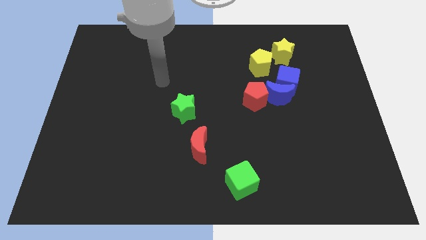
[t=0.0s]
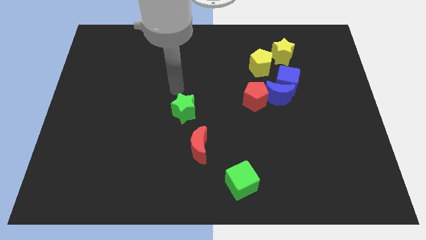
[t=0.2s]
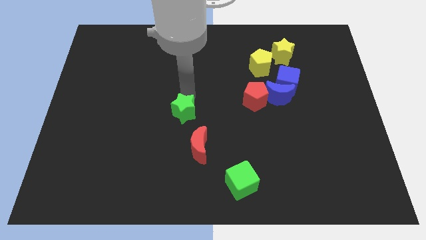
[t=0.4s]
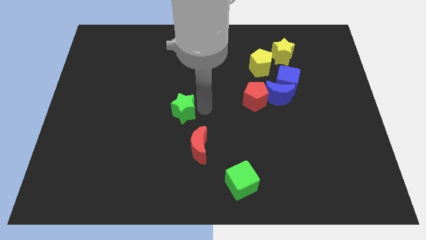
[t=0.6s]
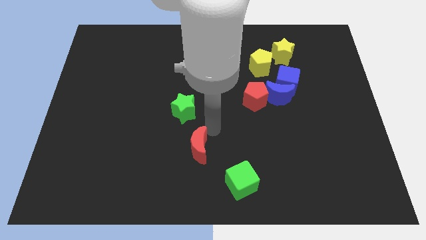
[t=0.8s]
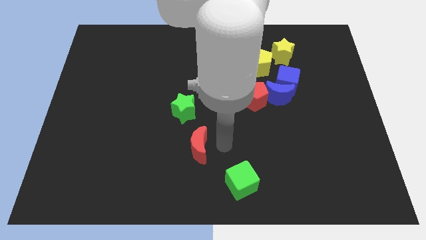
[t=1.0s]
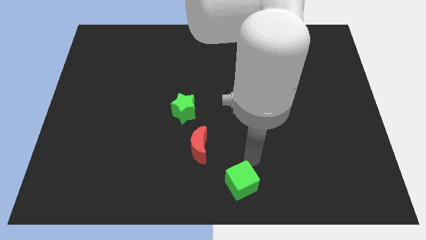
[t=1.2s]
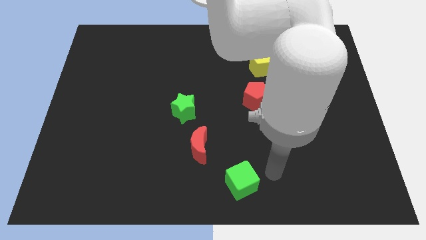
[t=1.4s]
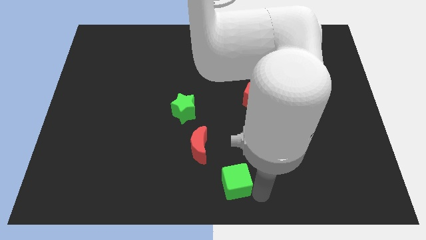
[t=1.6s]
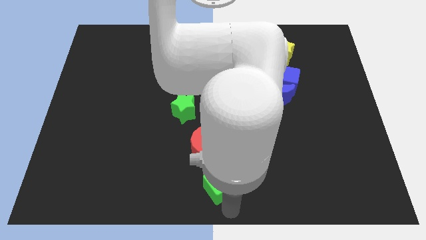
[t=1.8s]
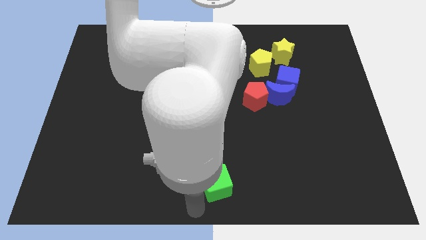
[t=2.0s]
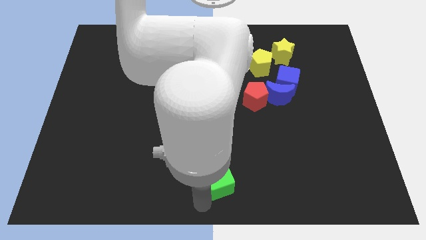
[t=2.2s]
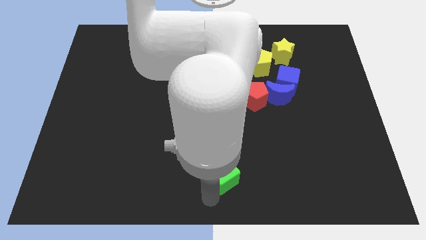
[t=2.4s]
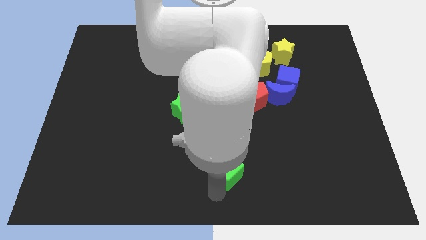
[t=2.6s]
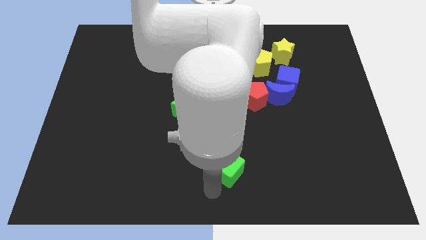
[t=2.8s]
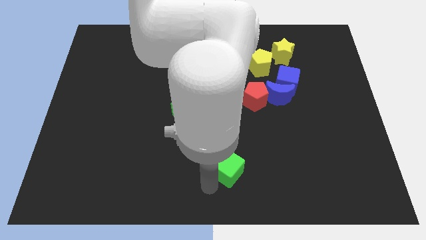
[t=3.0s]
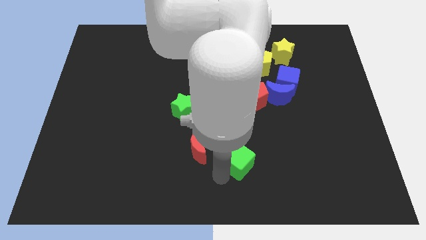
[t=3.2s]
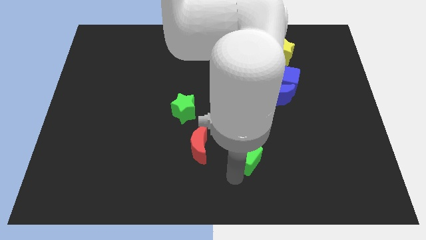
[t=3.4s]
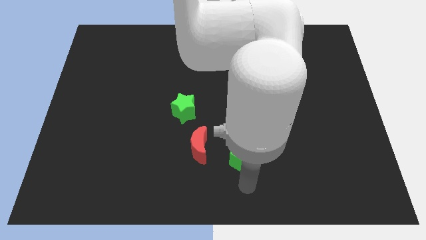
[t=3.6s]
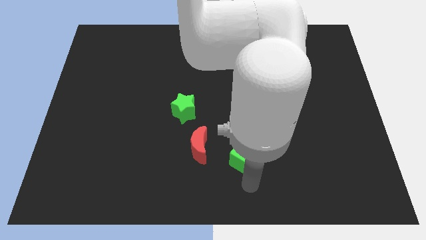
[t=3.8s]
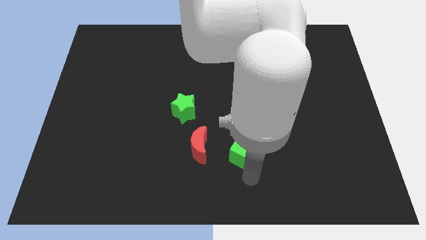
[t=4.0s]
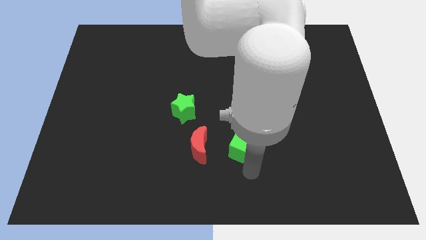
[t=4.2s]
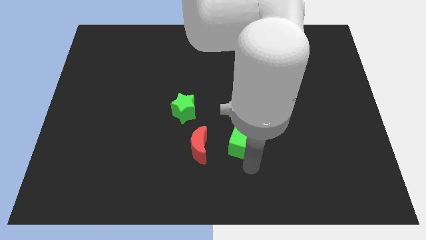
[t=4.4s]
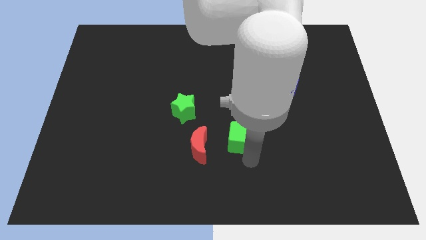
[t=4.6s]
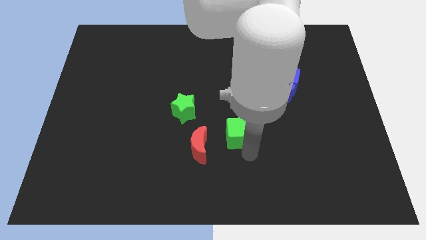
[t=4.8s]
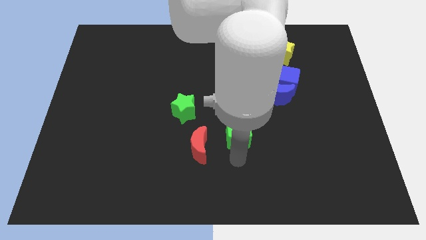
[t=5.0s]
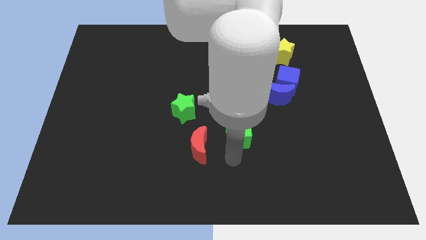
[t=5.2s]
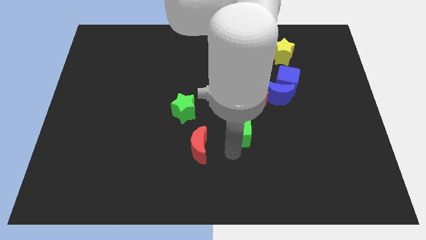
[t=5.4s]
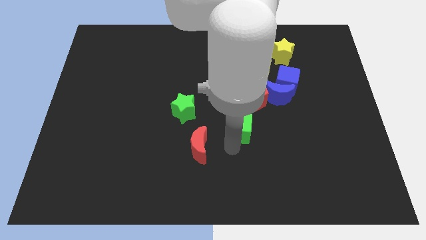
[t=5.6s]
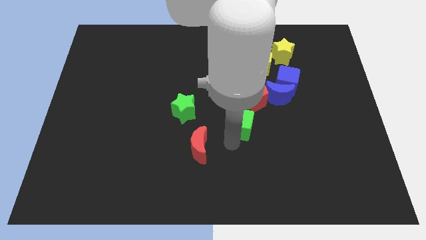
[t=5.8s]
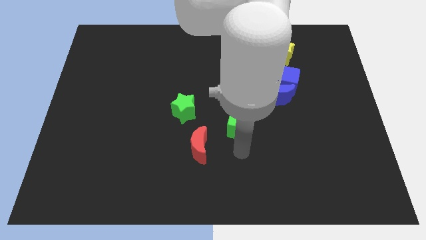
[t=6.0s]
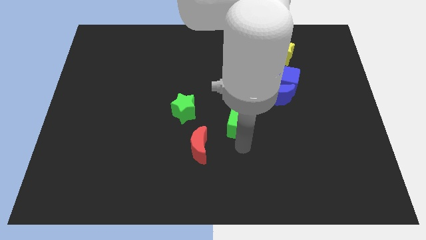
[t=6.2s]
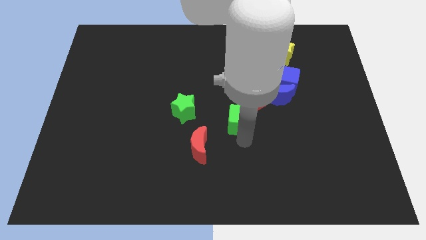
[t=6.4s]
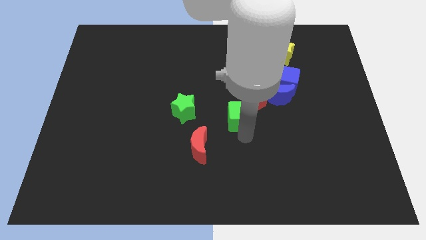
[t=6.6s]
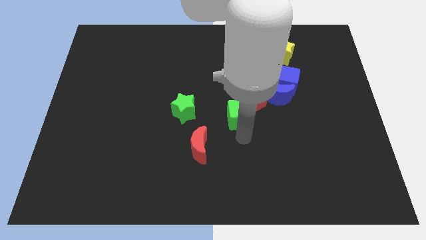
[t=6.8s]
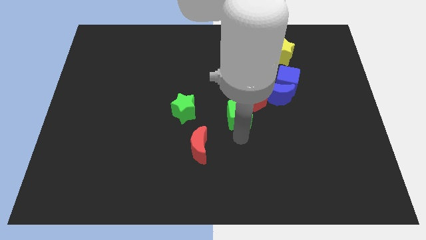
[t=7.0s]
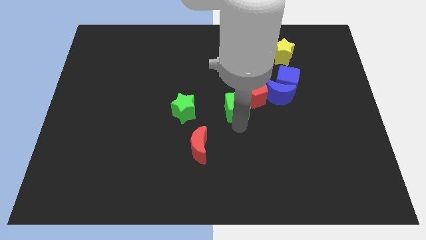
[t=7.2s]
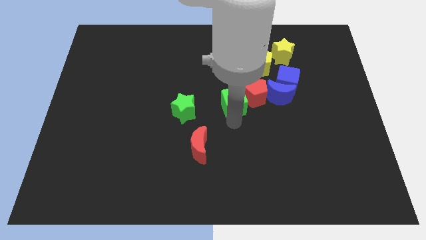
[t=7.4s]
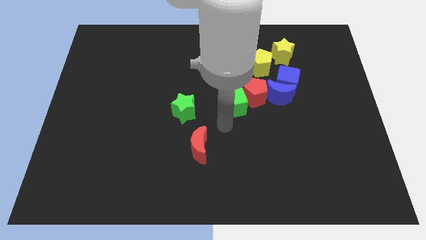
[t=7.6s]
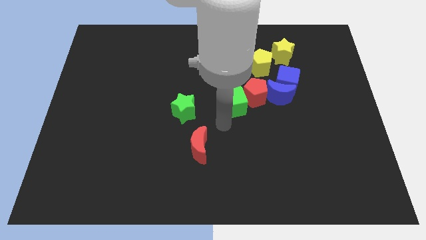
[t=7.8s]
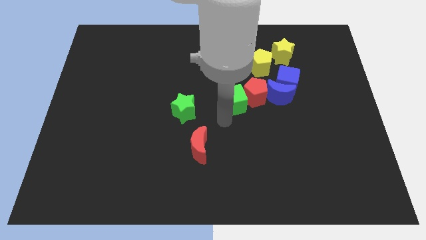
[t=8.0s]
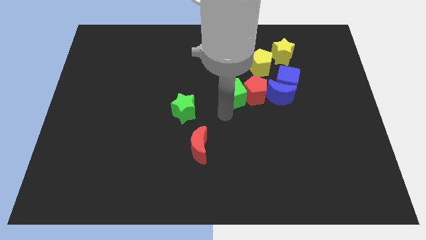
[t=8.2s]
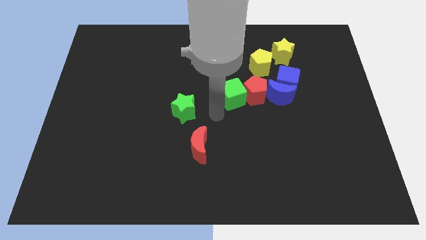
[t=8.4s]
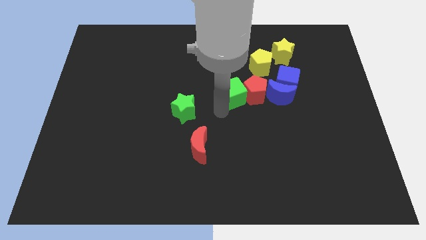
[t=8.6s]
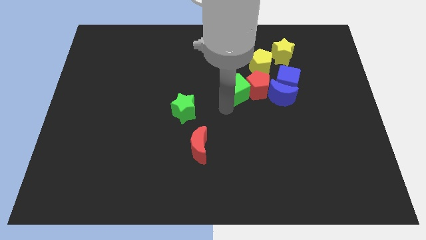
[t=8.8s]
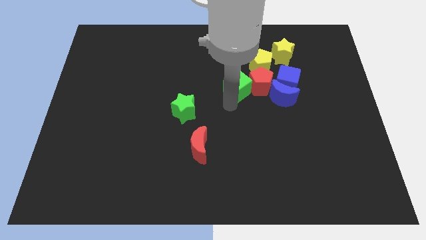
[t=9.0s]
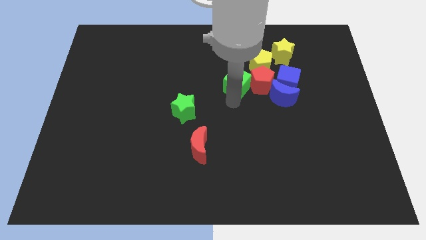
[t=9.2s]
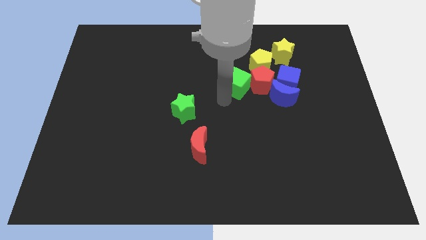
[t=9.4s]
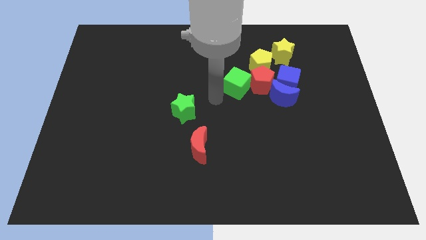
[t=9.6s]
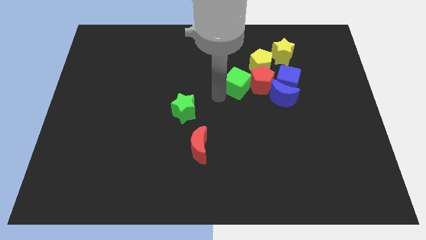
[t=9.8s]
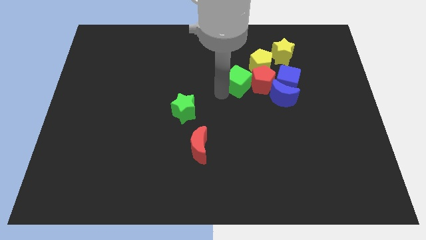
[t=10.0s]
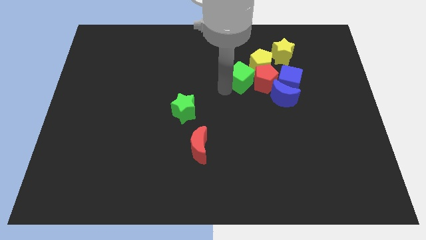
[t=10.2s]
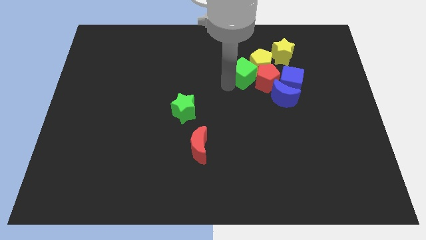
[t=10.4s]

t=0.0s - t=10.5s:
move the green cube towards the yellow pentagon

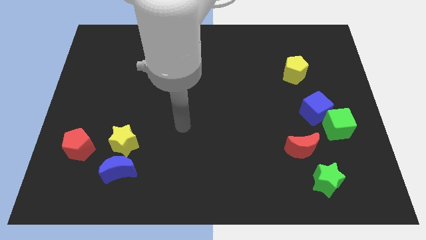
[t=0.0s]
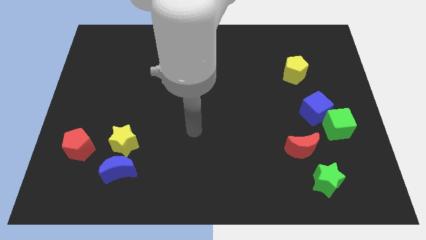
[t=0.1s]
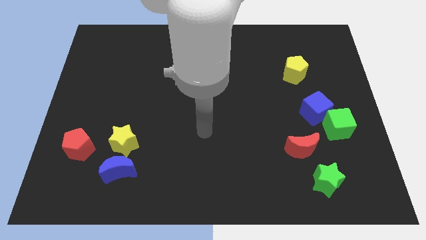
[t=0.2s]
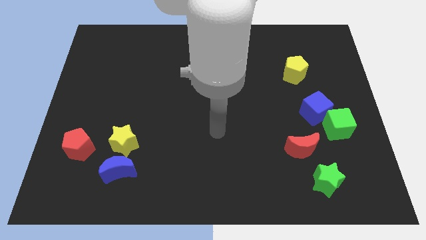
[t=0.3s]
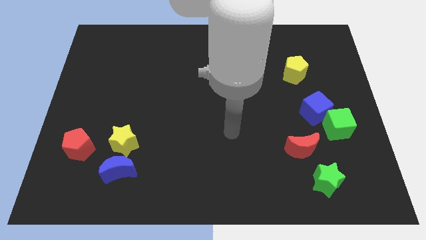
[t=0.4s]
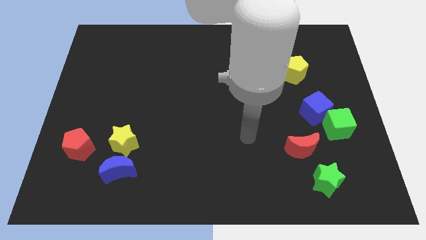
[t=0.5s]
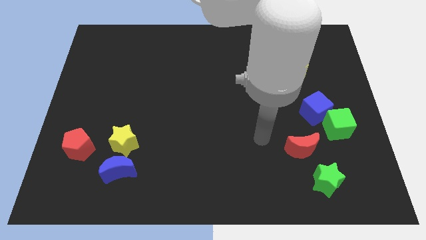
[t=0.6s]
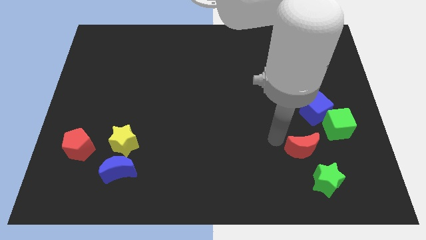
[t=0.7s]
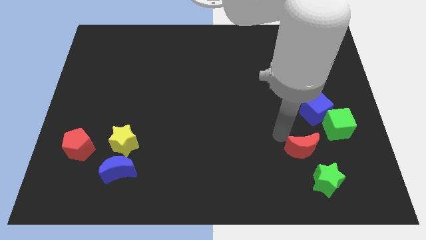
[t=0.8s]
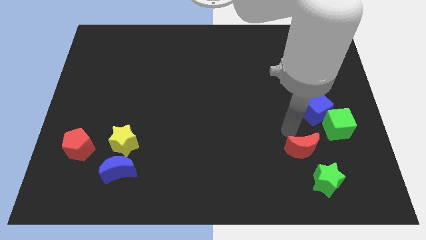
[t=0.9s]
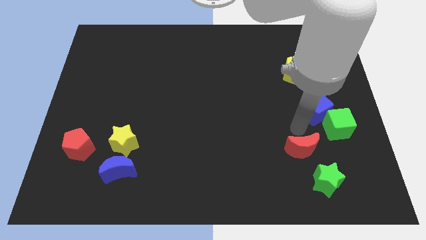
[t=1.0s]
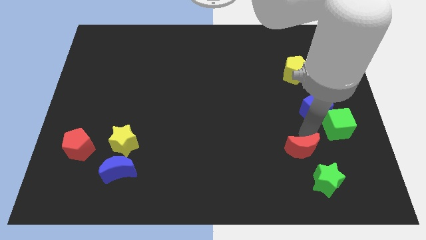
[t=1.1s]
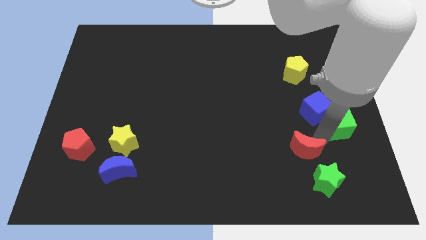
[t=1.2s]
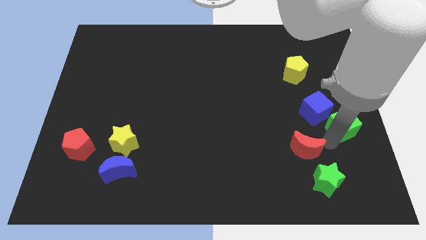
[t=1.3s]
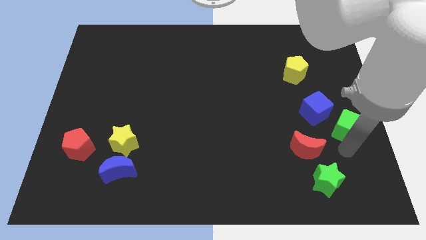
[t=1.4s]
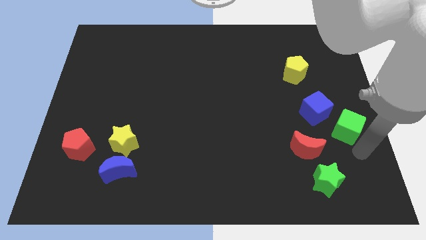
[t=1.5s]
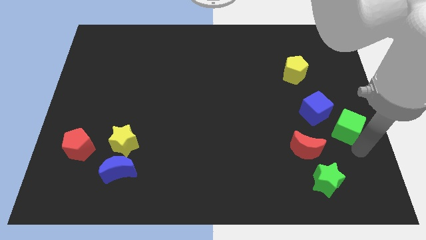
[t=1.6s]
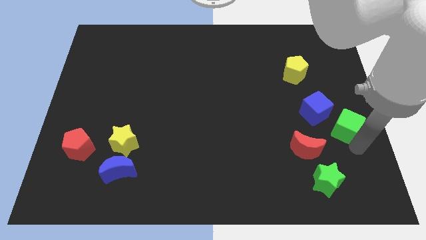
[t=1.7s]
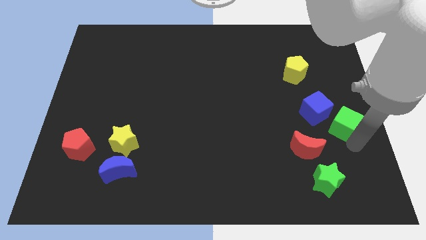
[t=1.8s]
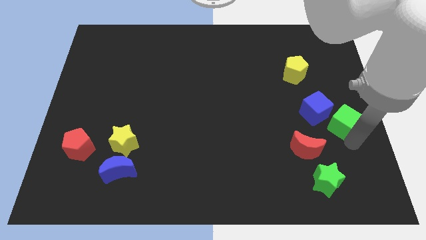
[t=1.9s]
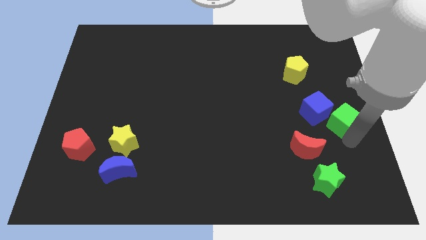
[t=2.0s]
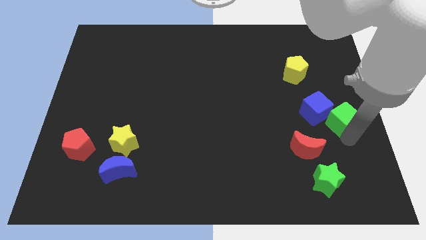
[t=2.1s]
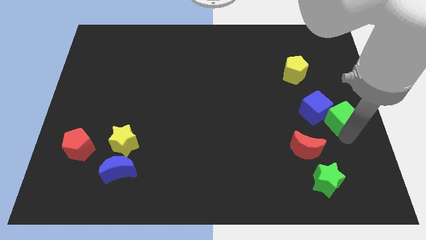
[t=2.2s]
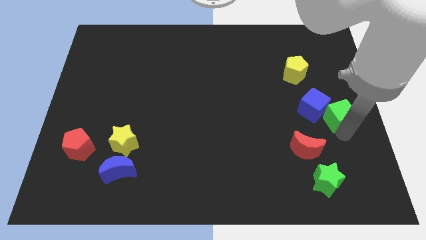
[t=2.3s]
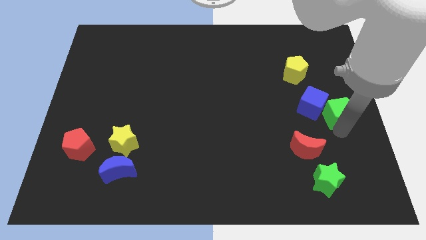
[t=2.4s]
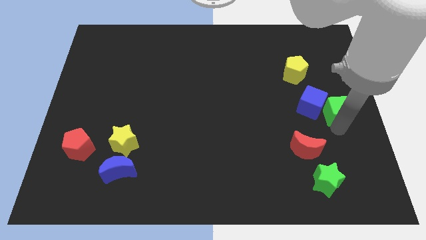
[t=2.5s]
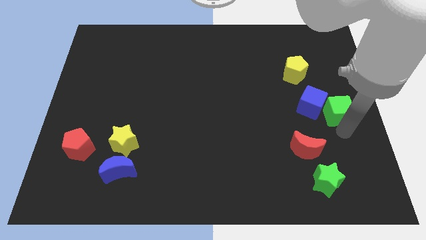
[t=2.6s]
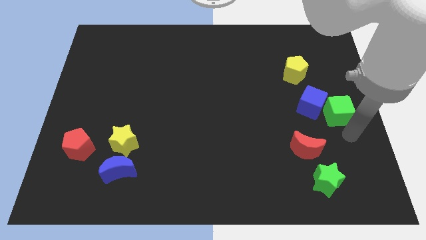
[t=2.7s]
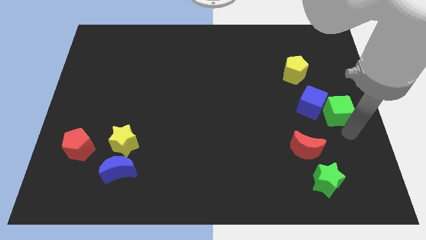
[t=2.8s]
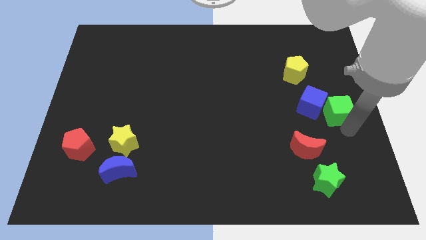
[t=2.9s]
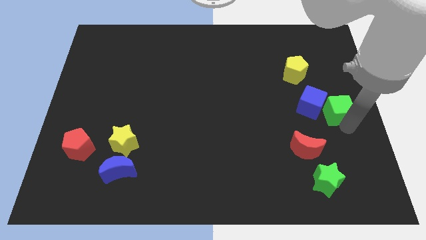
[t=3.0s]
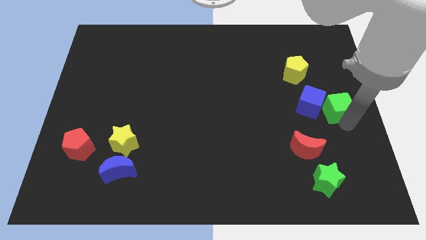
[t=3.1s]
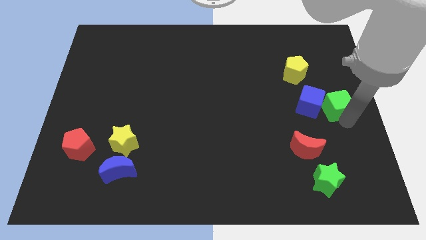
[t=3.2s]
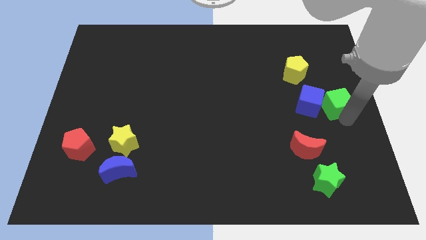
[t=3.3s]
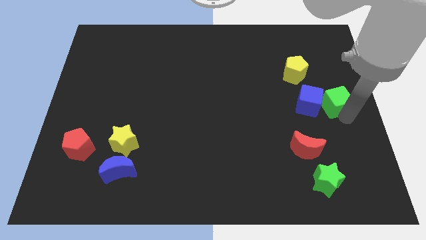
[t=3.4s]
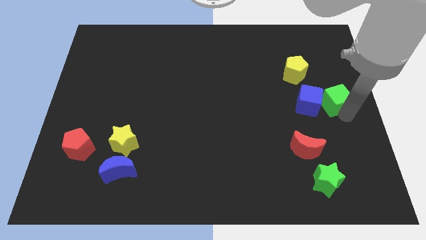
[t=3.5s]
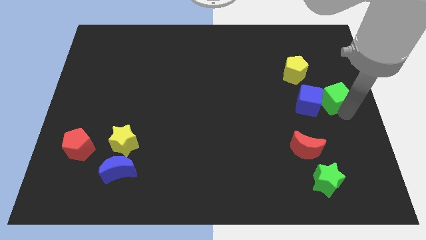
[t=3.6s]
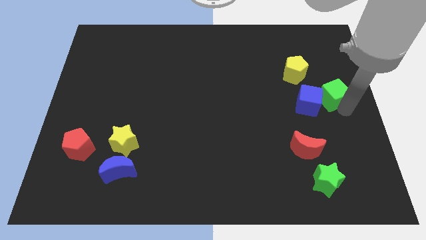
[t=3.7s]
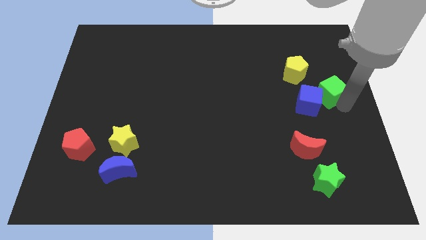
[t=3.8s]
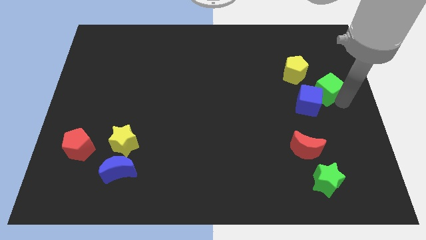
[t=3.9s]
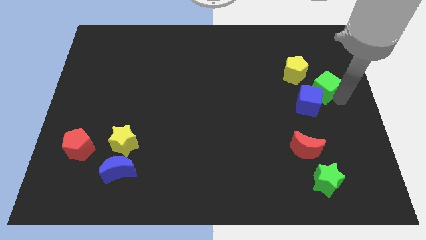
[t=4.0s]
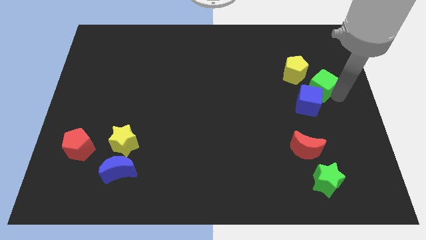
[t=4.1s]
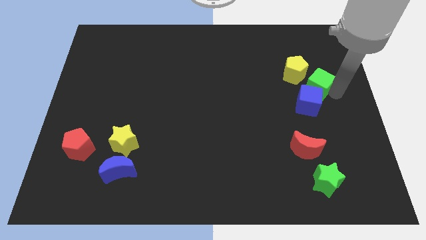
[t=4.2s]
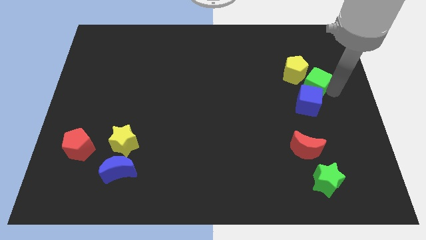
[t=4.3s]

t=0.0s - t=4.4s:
put the green cube to the yellow pentagon
